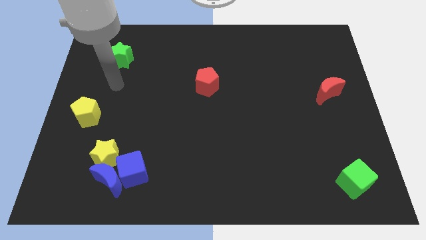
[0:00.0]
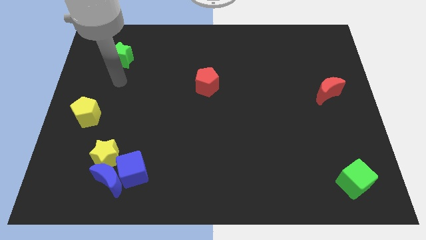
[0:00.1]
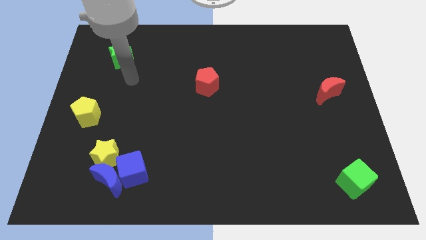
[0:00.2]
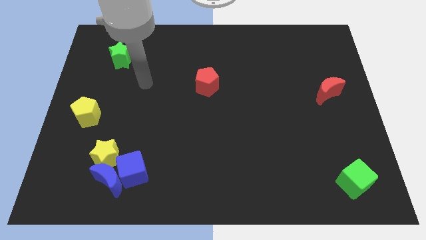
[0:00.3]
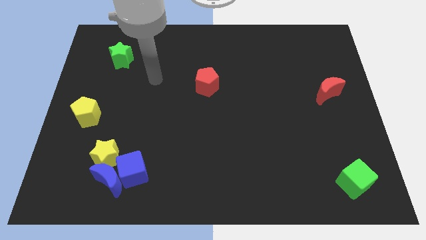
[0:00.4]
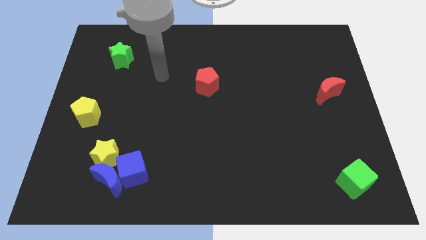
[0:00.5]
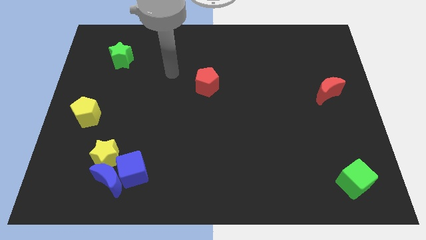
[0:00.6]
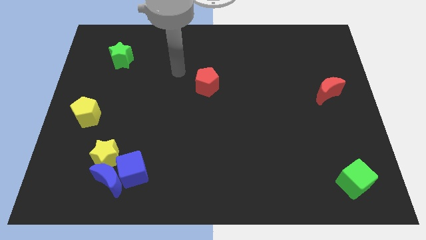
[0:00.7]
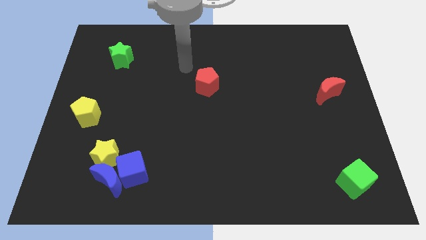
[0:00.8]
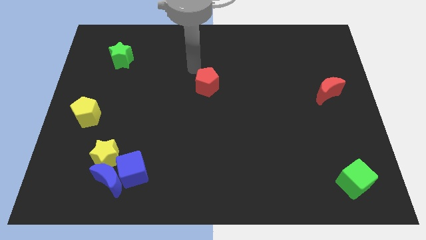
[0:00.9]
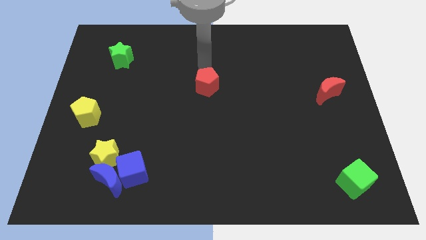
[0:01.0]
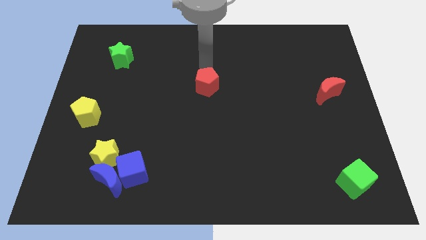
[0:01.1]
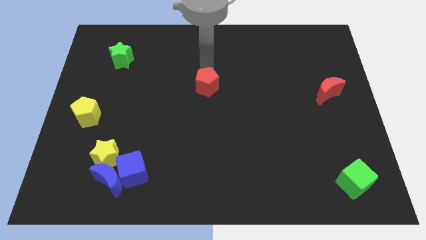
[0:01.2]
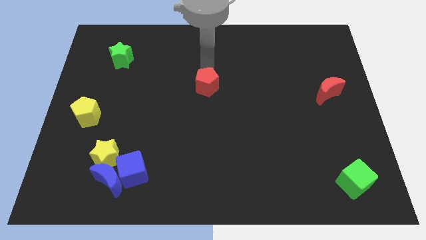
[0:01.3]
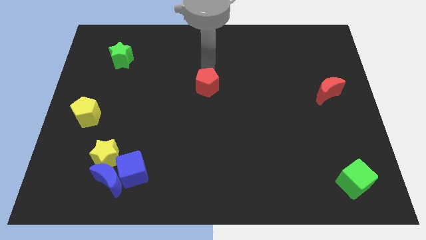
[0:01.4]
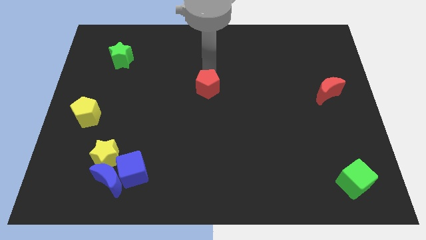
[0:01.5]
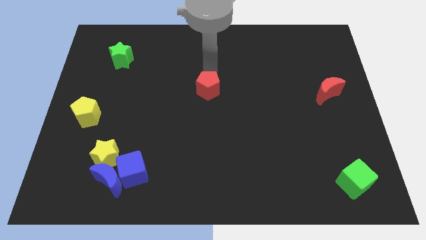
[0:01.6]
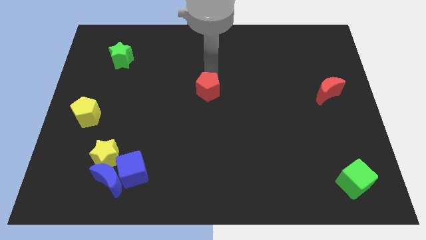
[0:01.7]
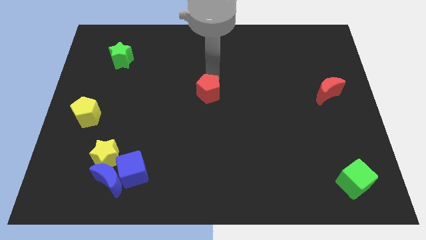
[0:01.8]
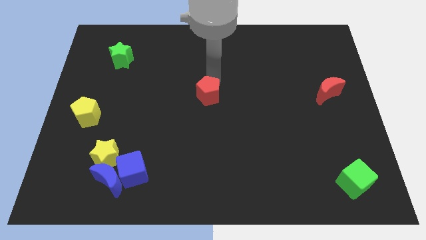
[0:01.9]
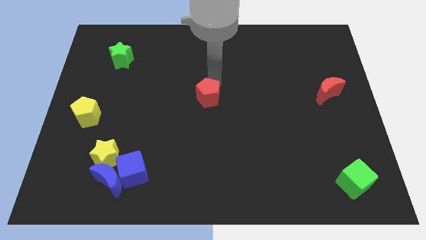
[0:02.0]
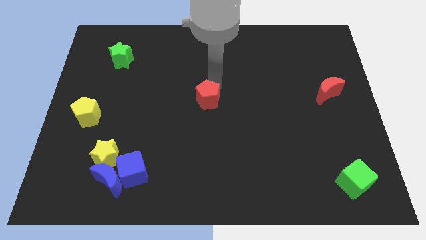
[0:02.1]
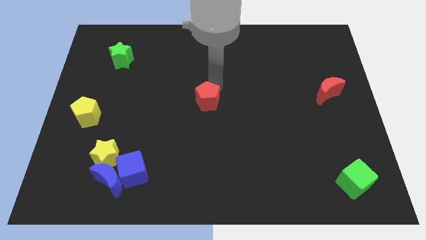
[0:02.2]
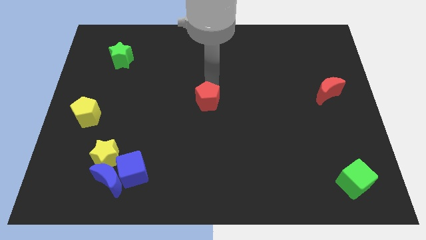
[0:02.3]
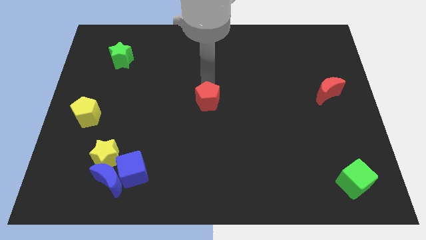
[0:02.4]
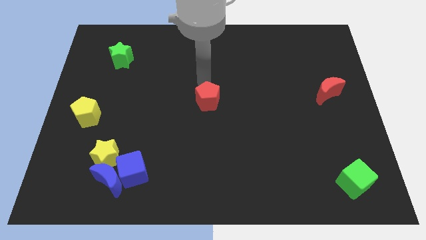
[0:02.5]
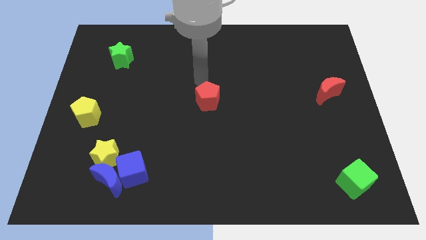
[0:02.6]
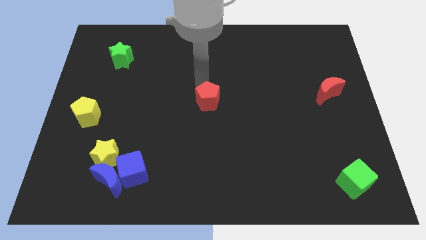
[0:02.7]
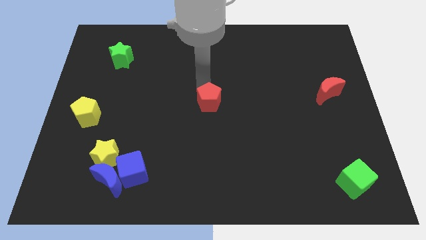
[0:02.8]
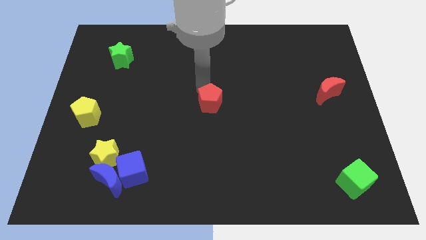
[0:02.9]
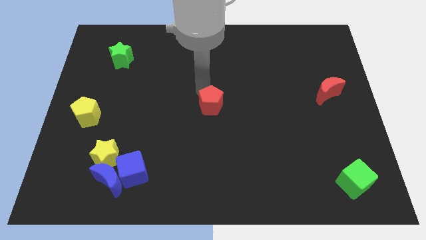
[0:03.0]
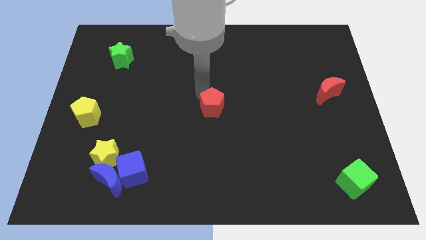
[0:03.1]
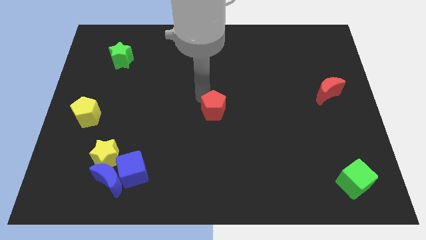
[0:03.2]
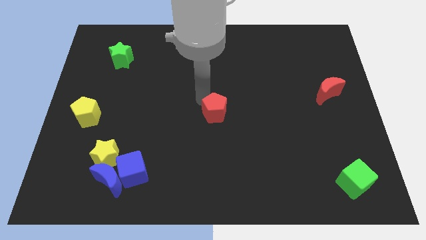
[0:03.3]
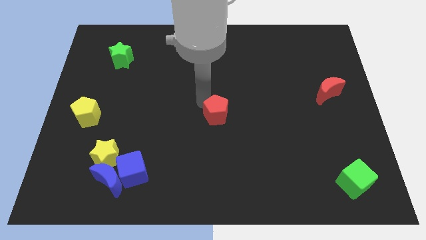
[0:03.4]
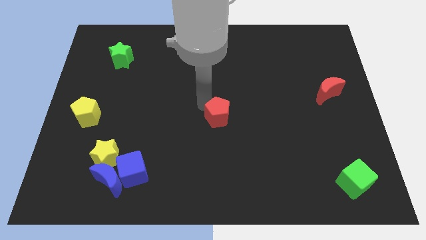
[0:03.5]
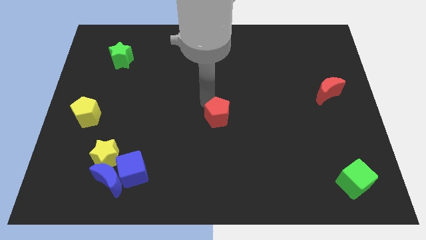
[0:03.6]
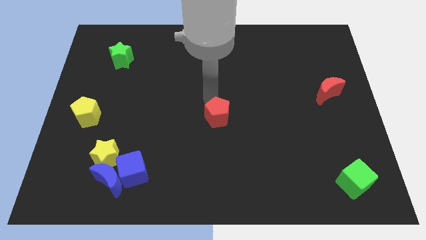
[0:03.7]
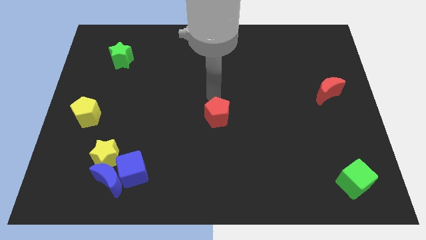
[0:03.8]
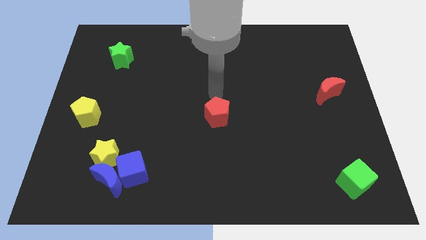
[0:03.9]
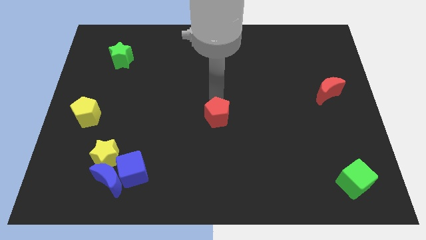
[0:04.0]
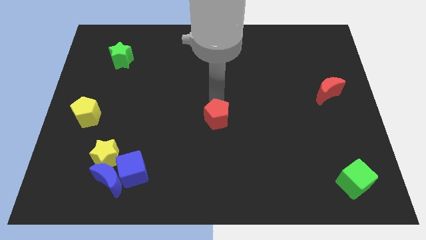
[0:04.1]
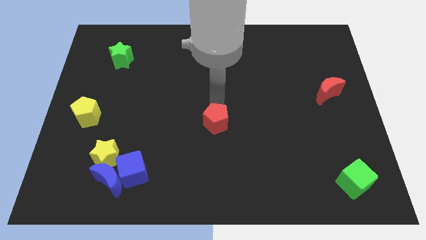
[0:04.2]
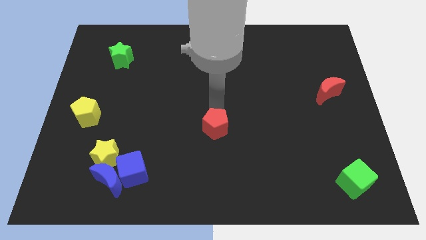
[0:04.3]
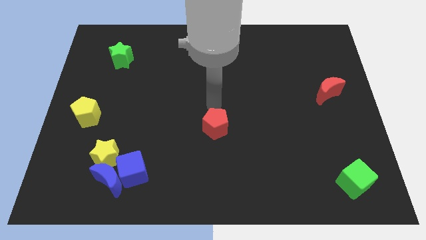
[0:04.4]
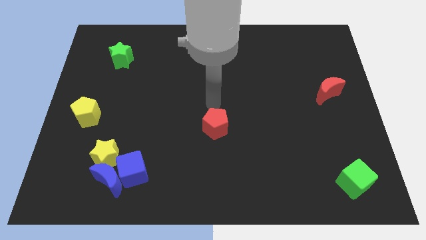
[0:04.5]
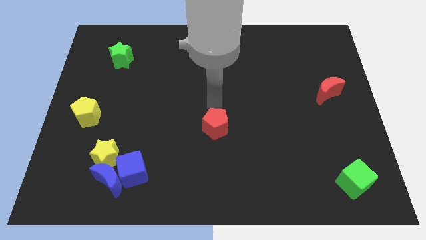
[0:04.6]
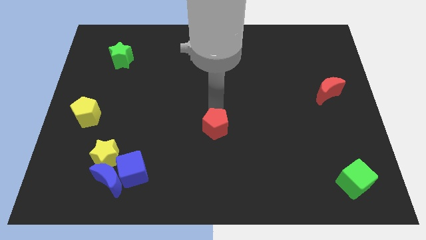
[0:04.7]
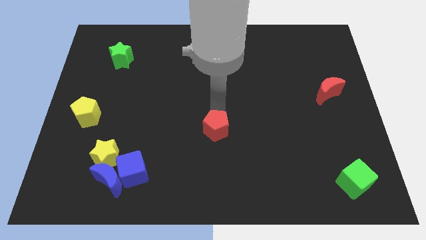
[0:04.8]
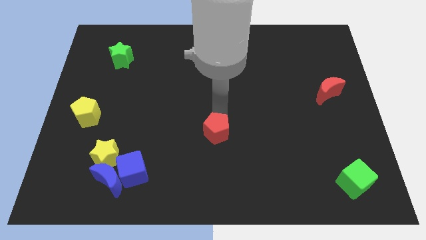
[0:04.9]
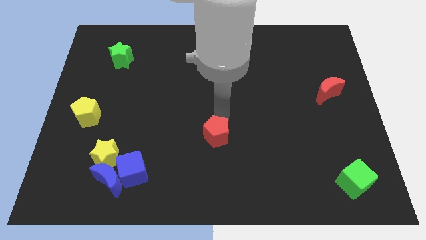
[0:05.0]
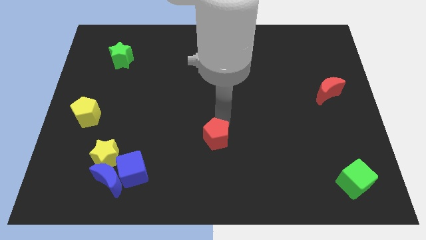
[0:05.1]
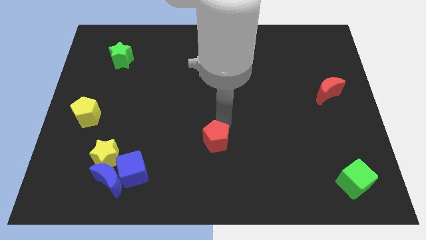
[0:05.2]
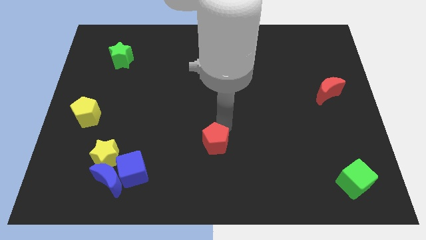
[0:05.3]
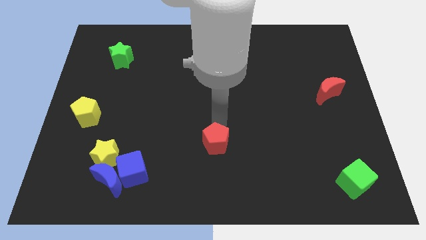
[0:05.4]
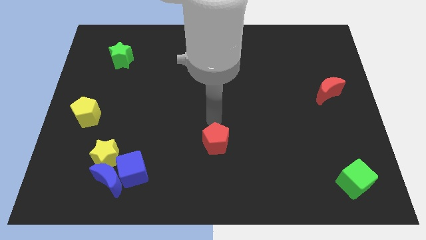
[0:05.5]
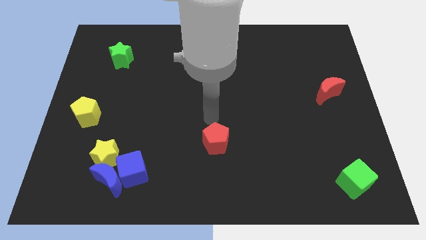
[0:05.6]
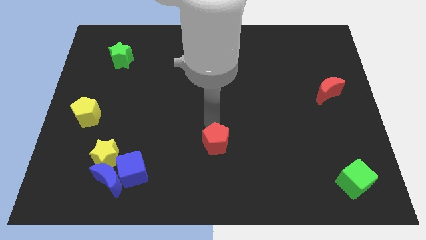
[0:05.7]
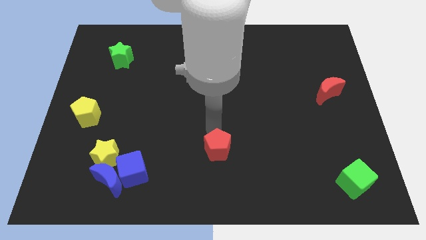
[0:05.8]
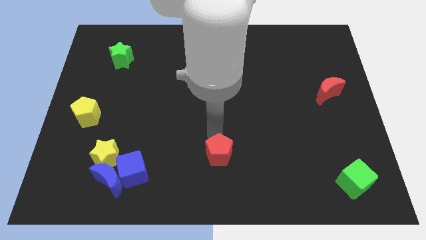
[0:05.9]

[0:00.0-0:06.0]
put the red pentagon to the bottom

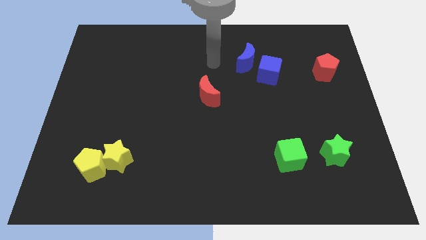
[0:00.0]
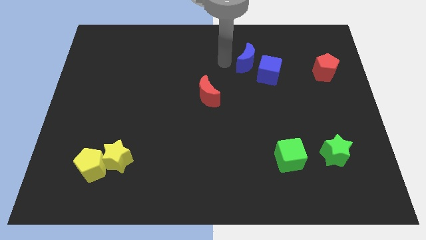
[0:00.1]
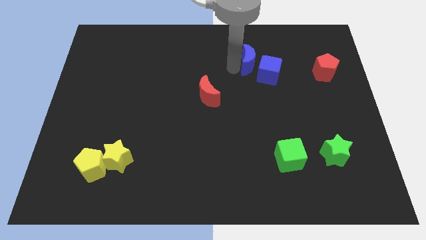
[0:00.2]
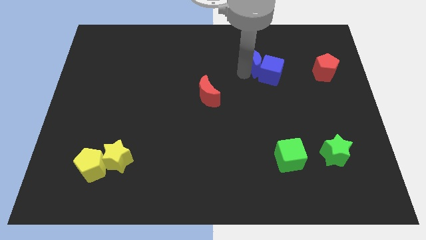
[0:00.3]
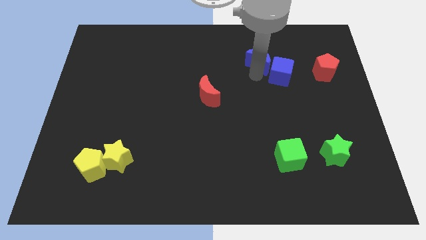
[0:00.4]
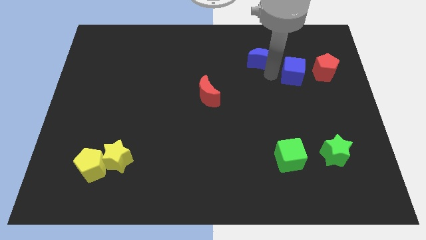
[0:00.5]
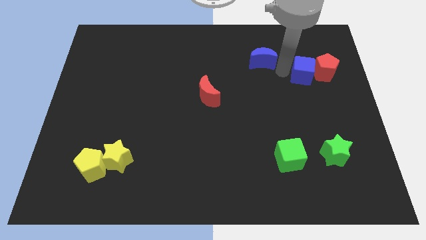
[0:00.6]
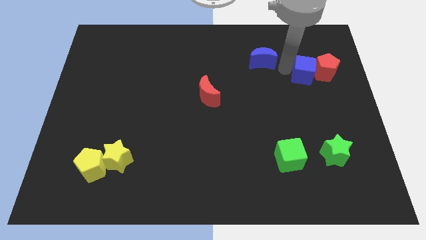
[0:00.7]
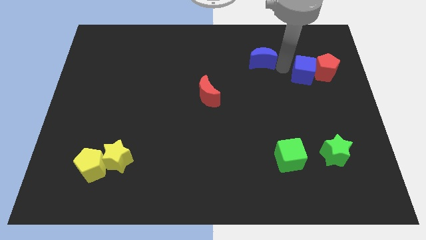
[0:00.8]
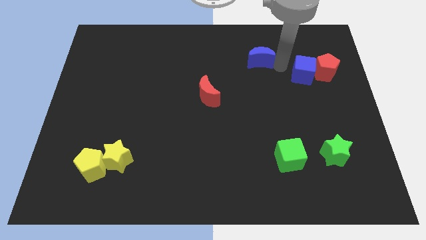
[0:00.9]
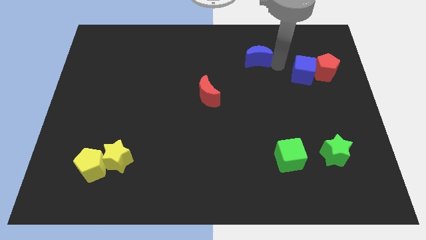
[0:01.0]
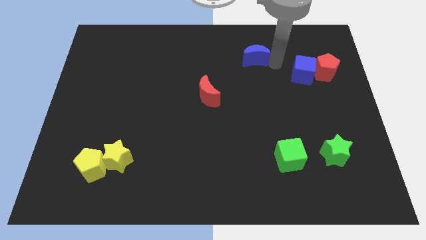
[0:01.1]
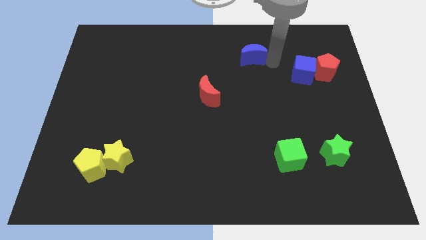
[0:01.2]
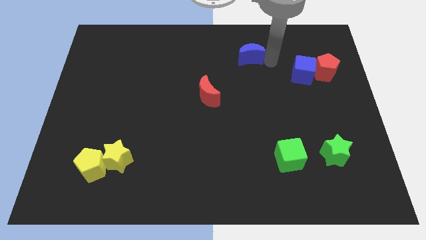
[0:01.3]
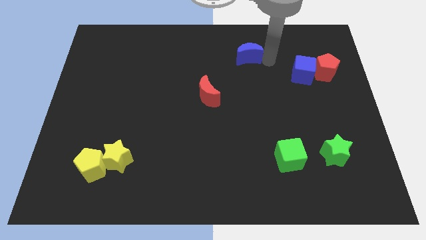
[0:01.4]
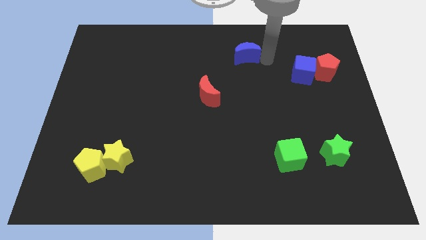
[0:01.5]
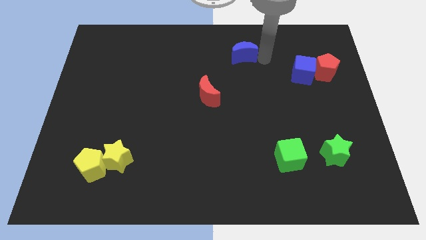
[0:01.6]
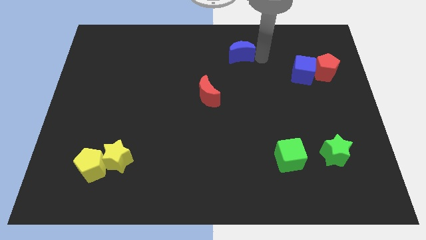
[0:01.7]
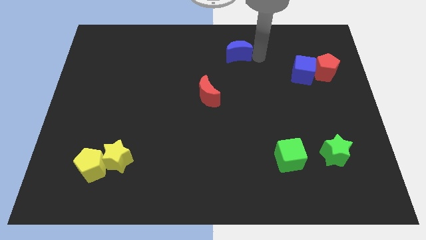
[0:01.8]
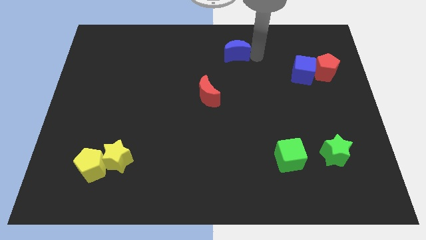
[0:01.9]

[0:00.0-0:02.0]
slide the blue moon to the top side
